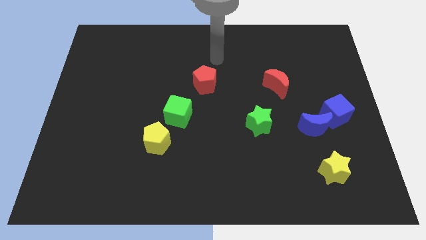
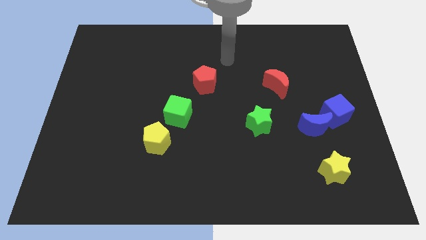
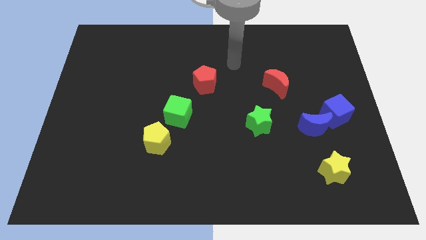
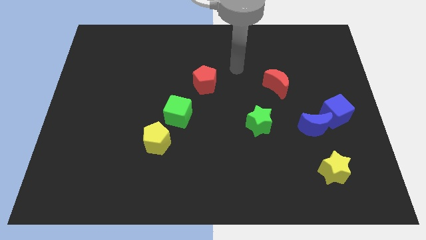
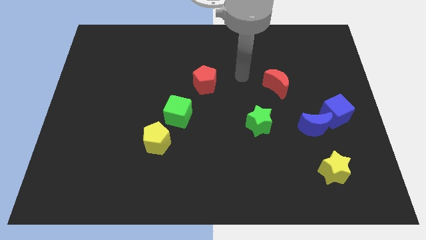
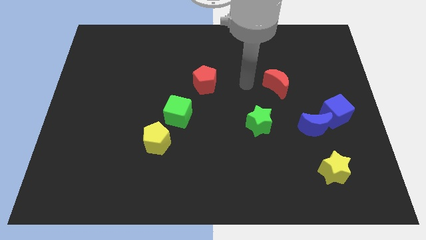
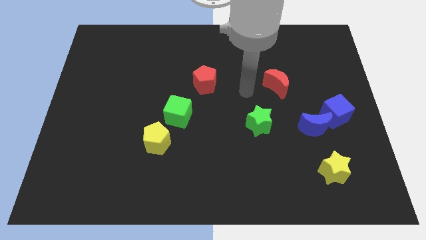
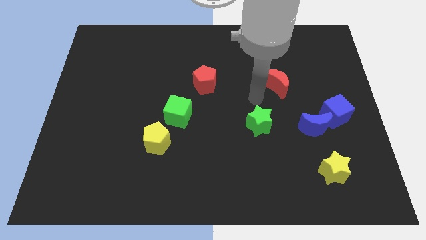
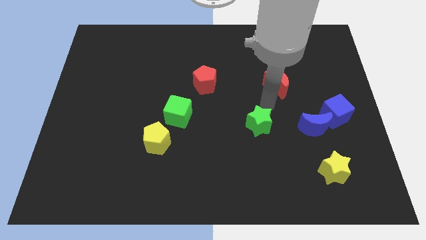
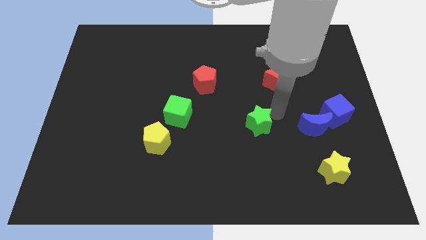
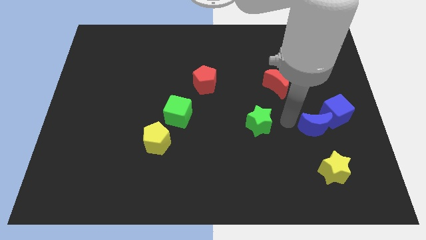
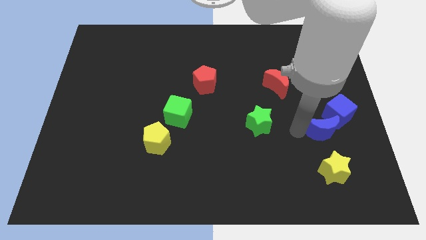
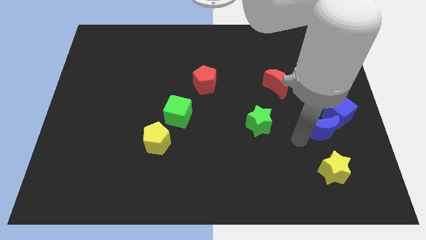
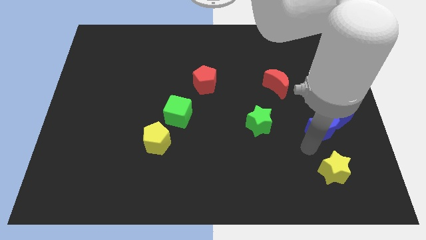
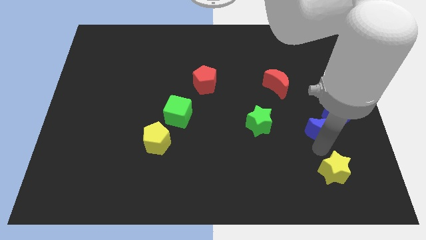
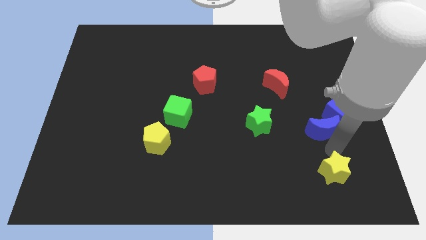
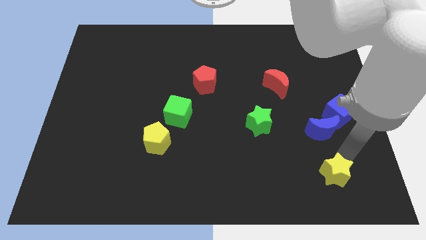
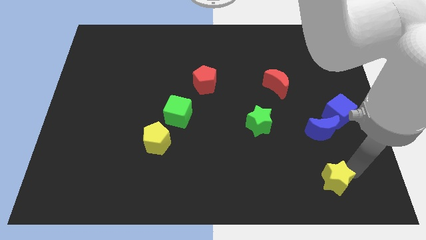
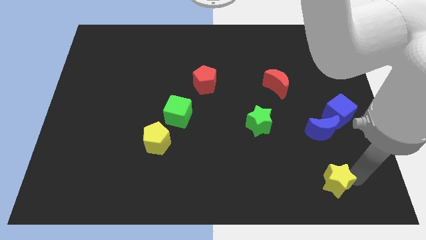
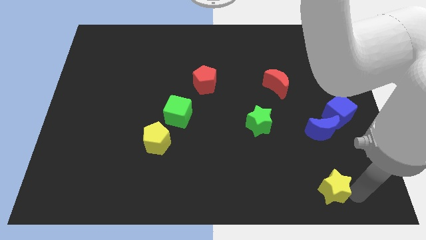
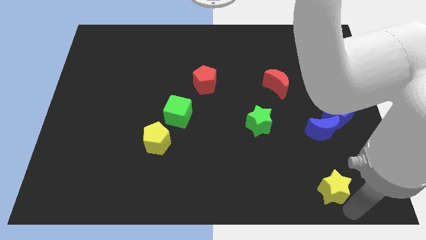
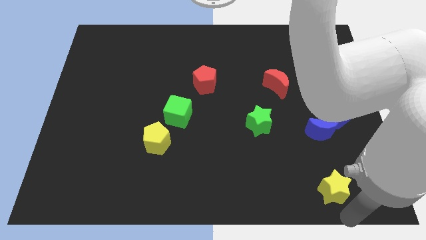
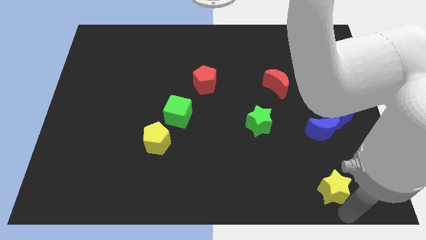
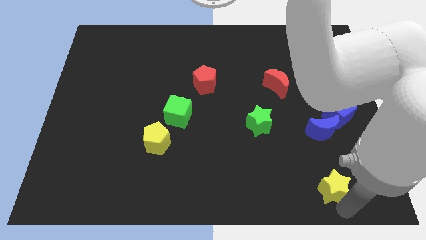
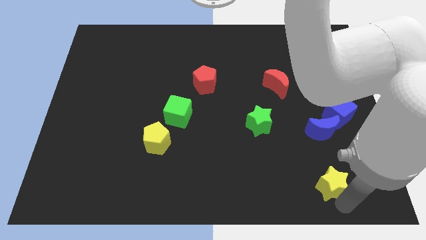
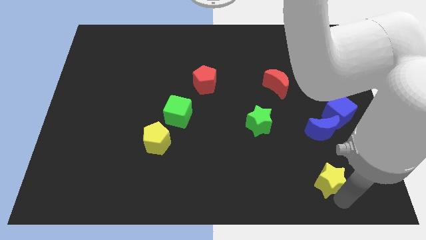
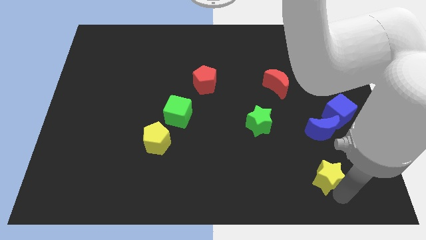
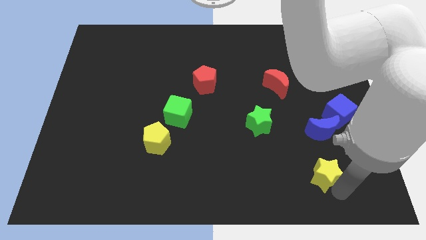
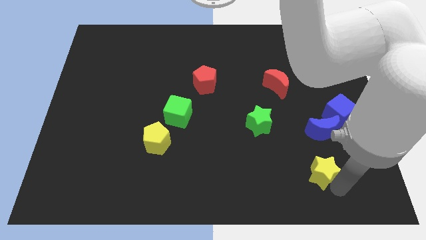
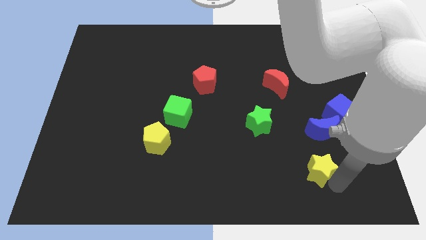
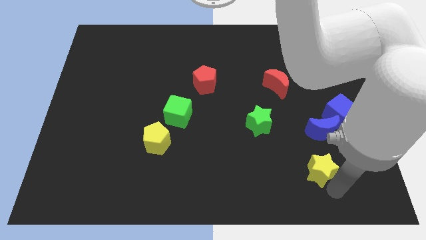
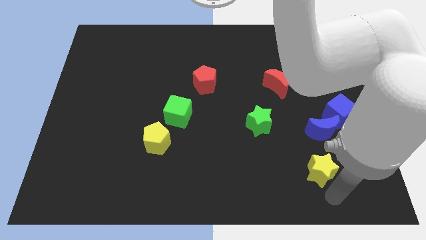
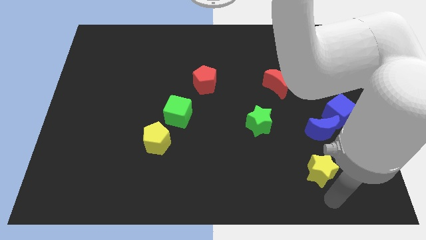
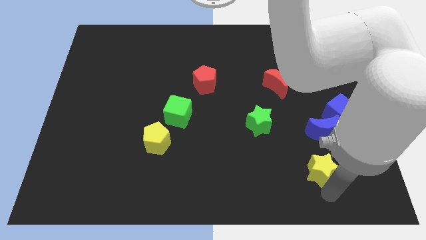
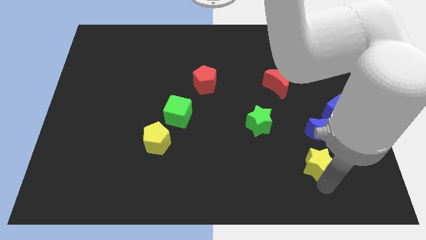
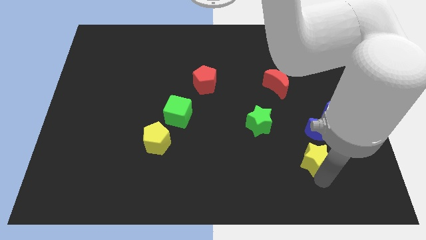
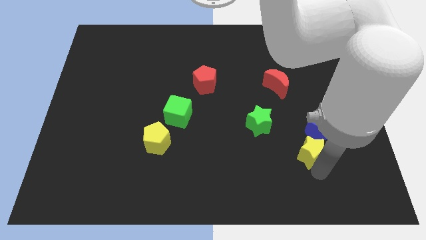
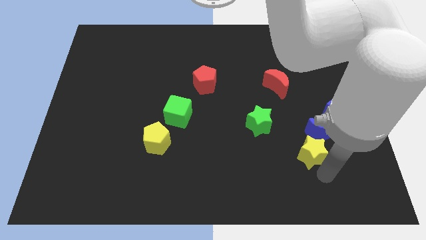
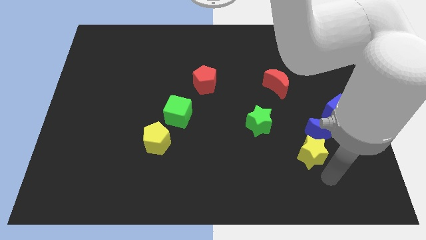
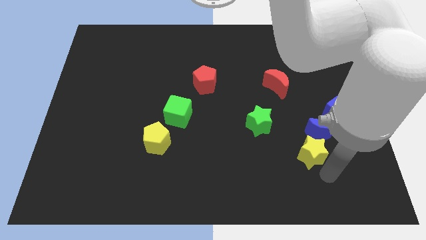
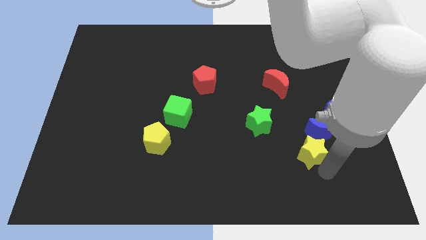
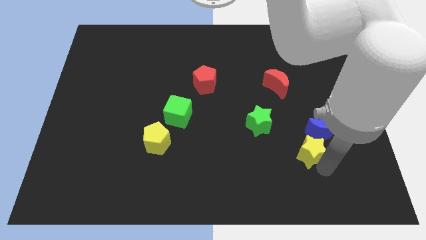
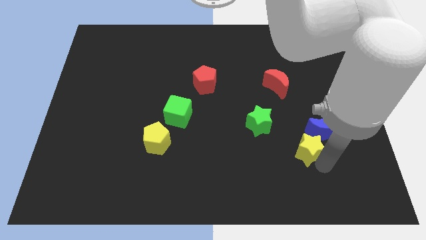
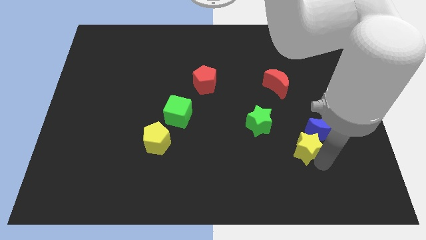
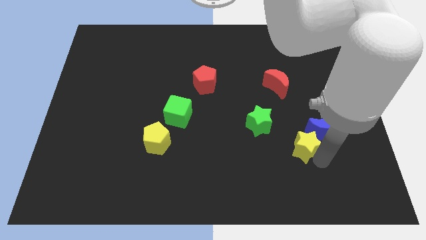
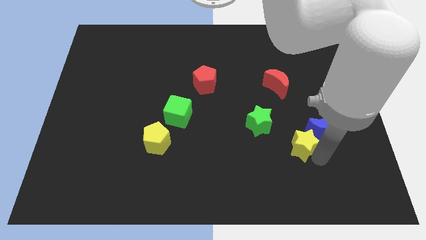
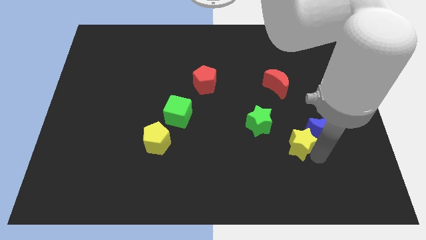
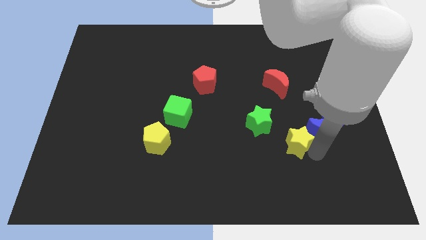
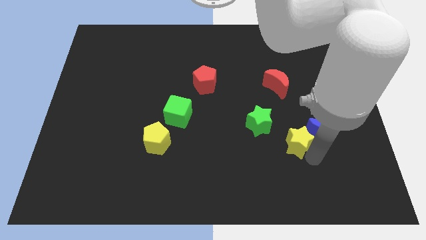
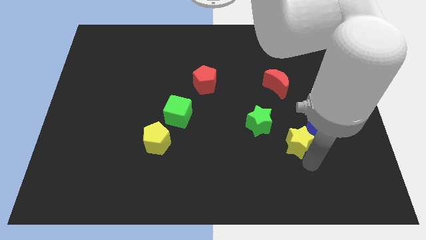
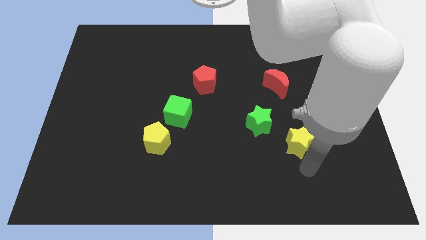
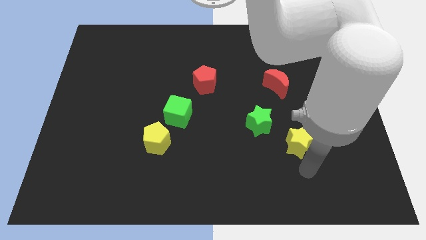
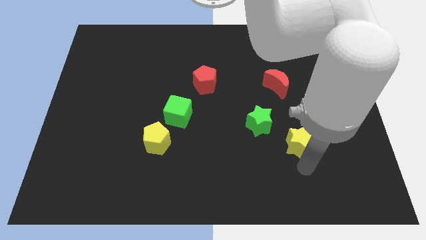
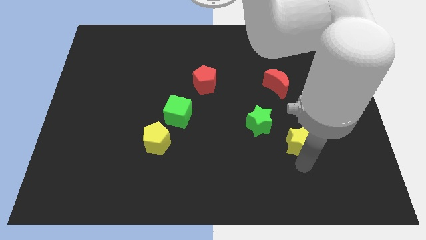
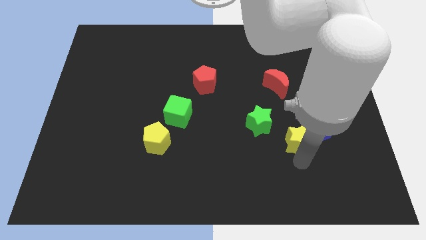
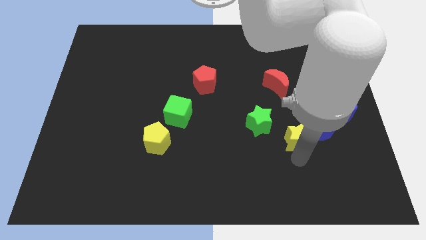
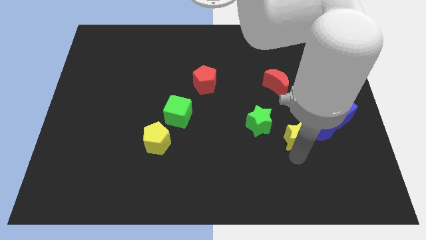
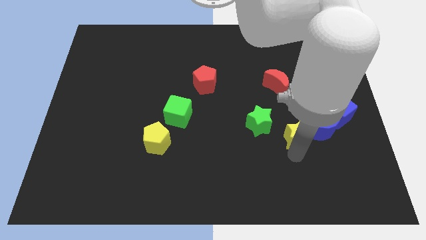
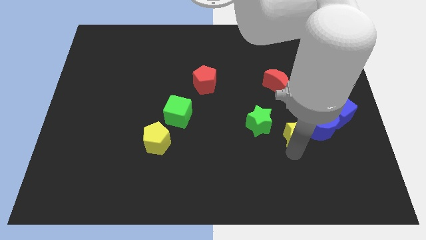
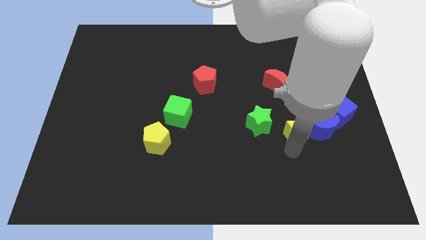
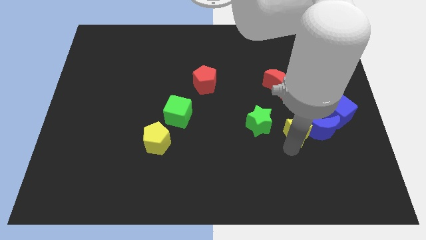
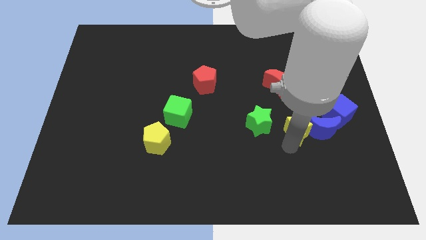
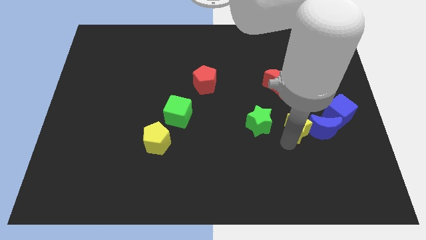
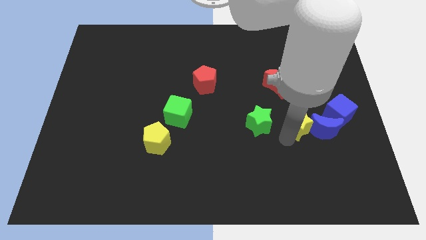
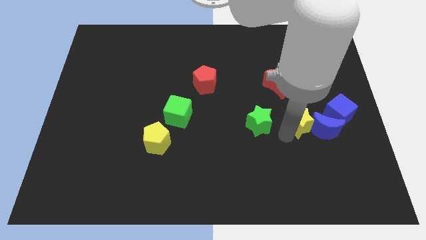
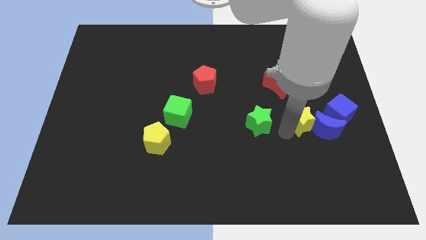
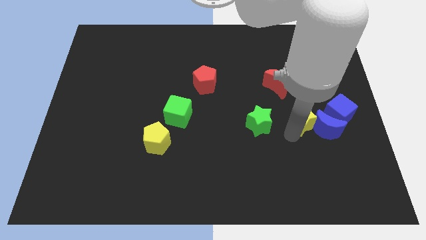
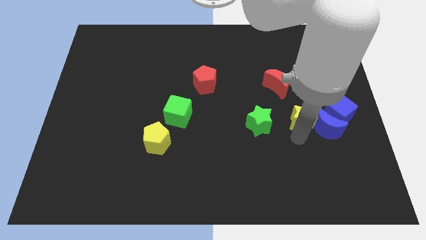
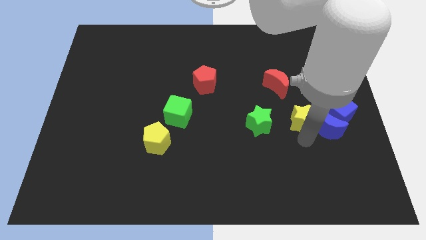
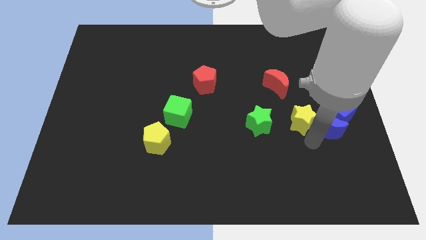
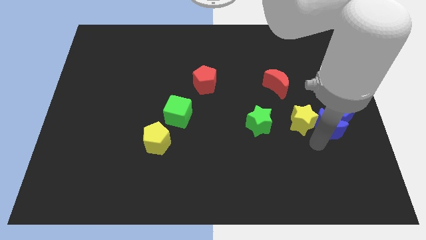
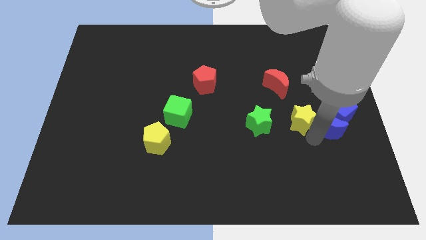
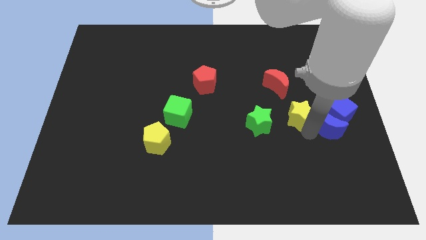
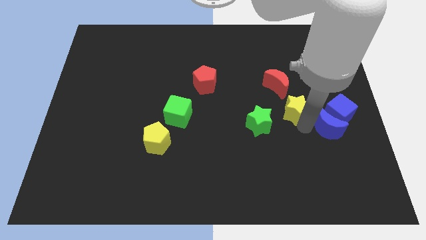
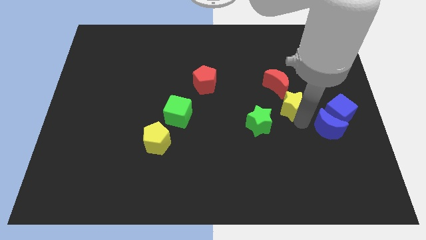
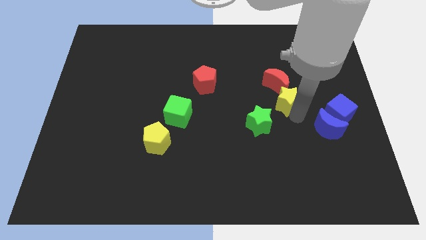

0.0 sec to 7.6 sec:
slide the yellow star next to the red moon
